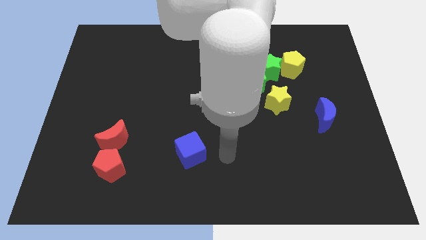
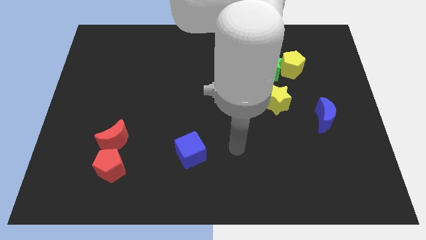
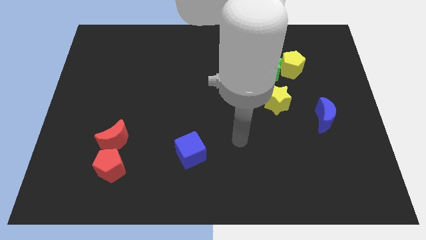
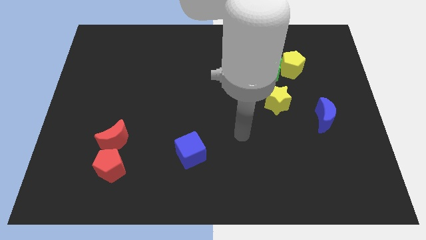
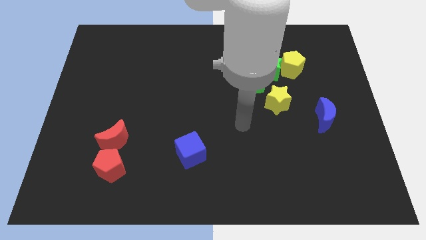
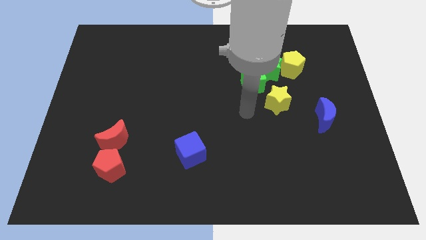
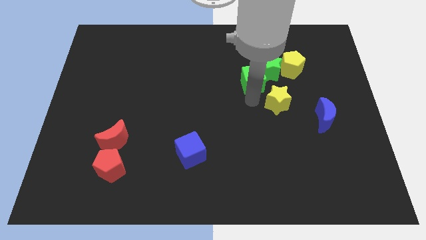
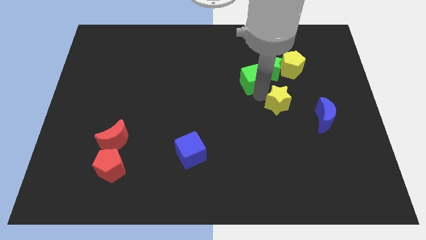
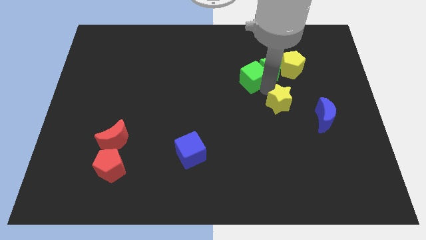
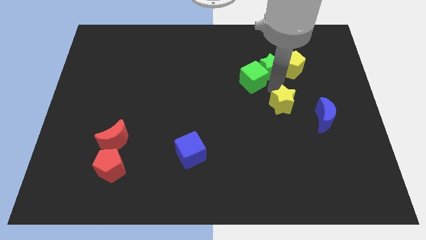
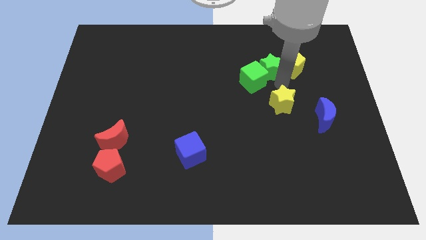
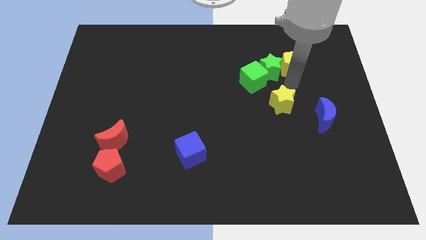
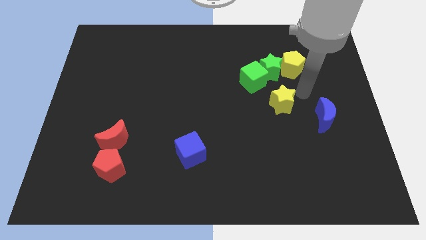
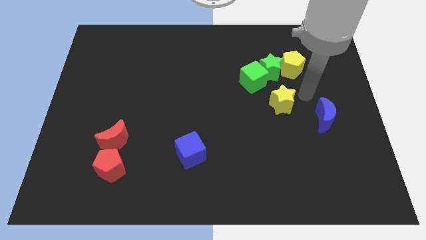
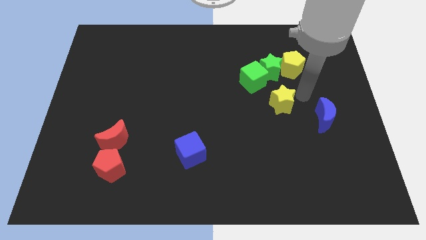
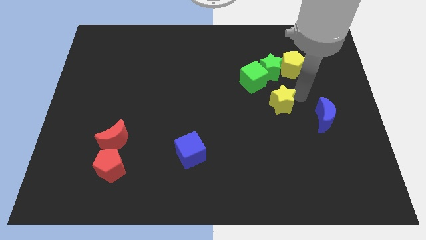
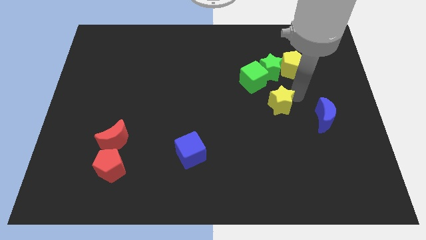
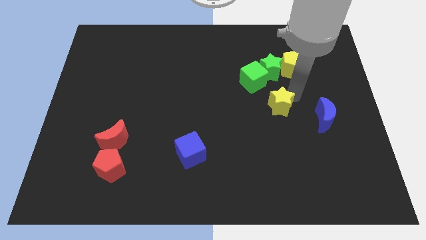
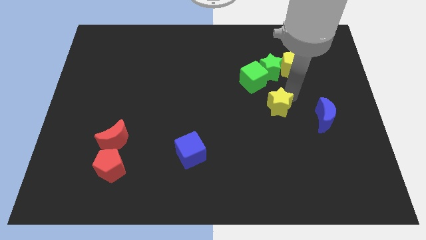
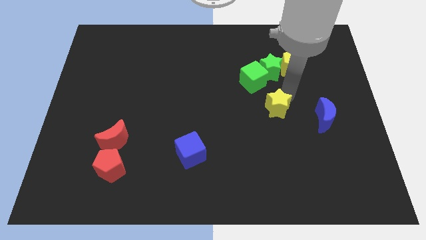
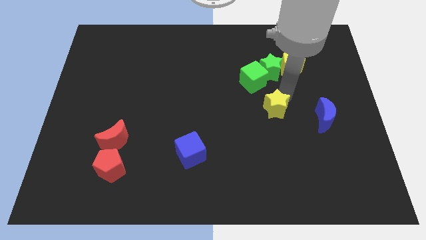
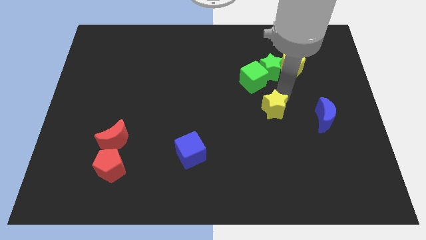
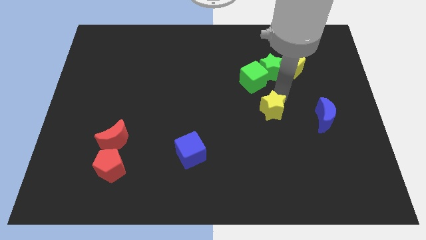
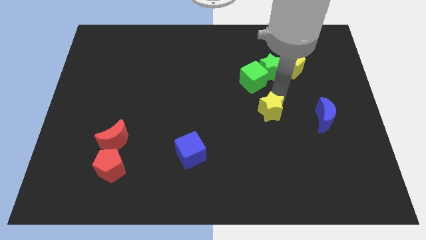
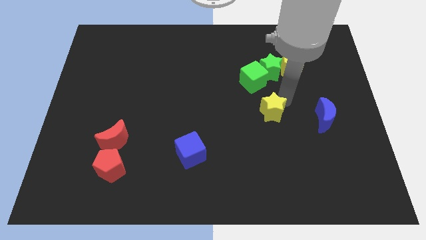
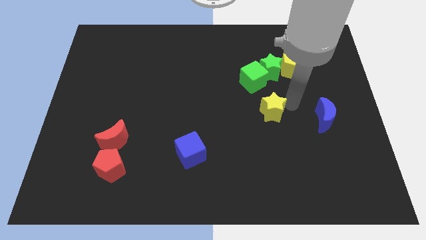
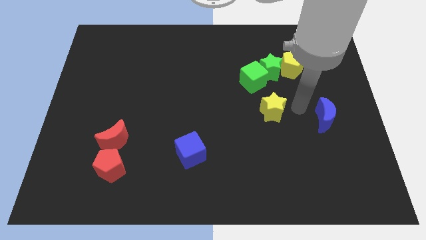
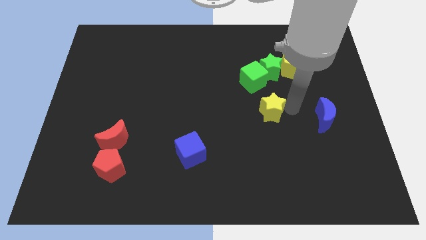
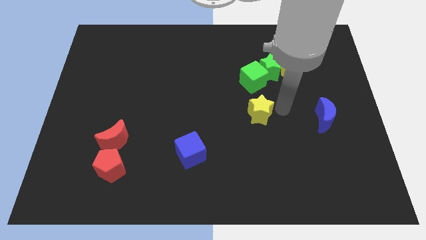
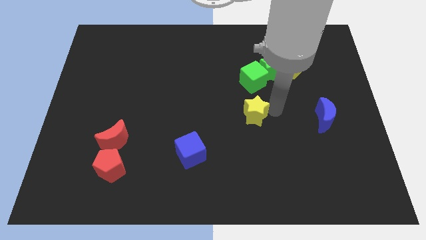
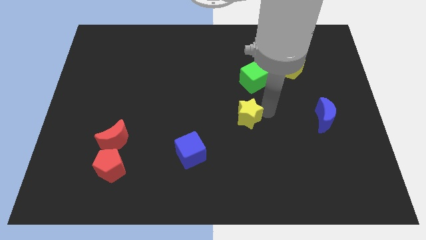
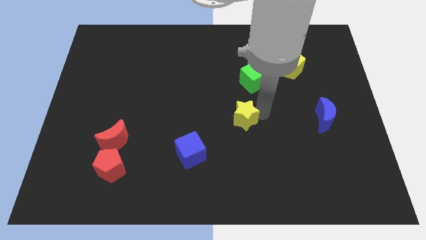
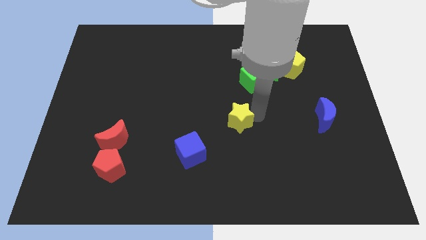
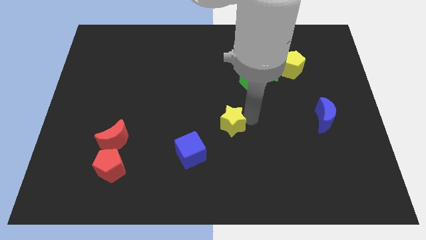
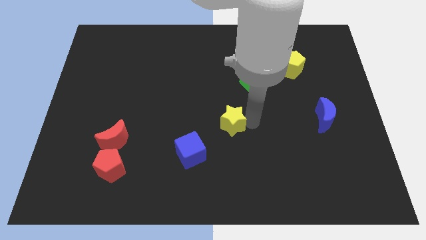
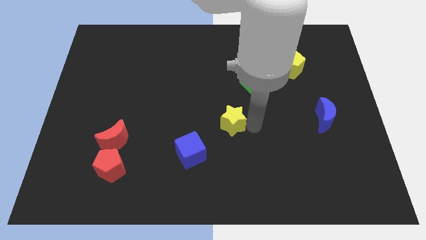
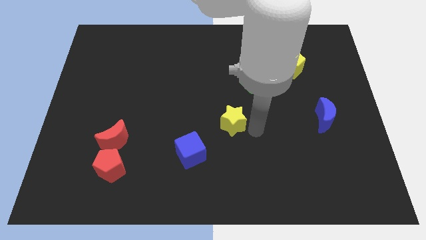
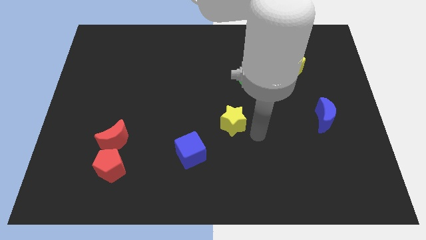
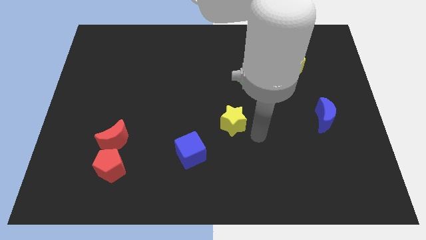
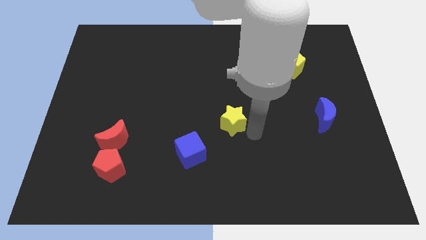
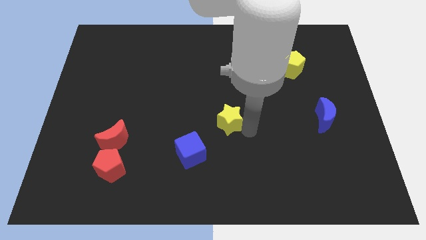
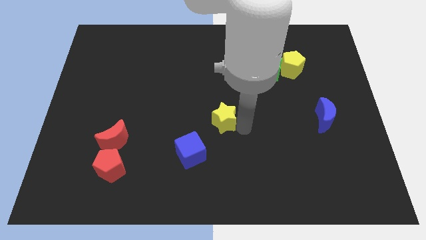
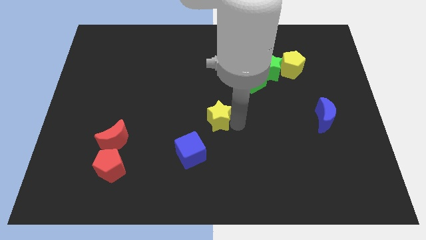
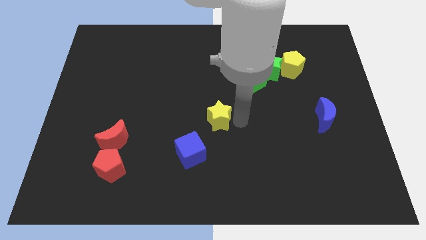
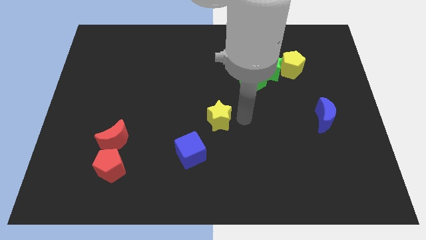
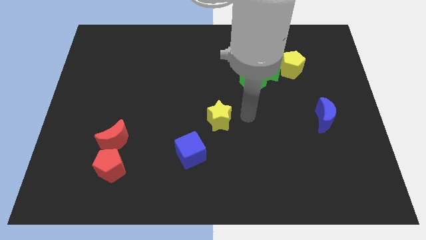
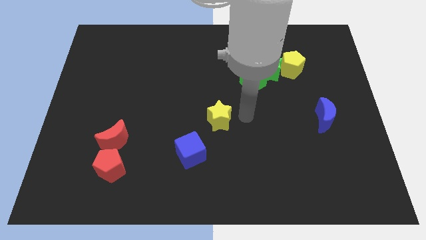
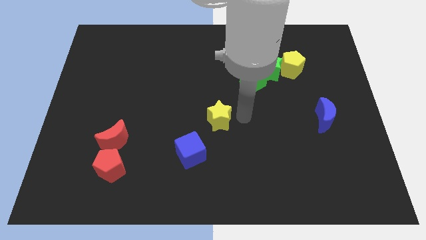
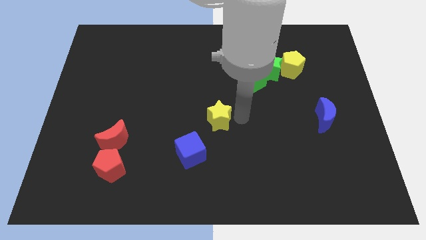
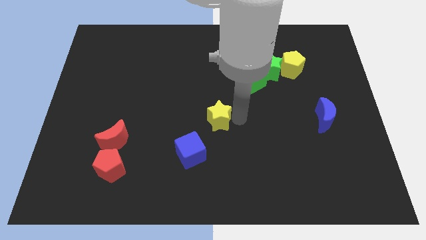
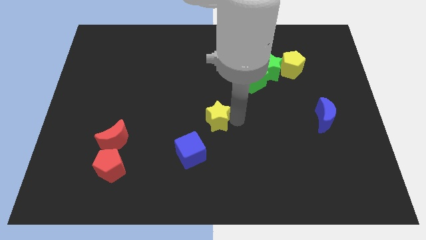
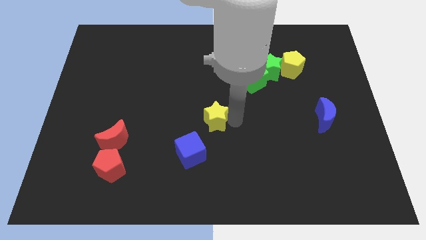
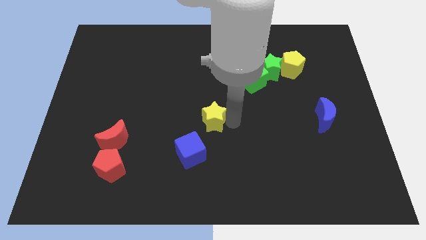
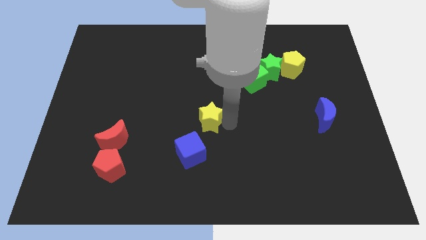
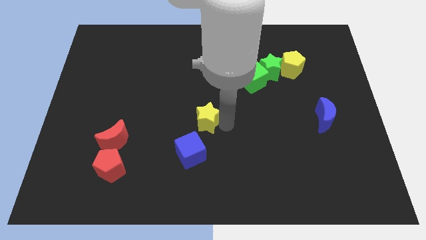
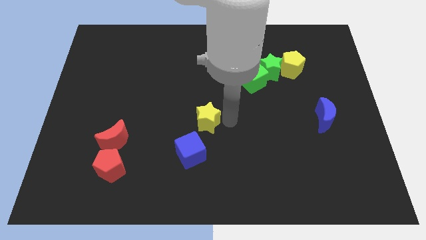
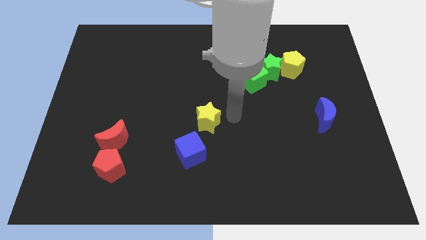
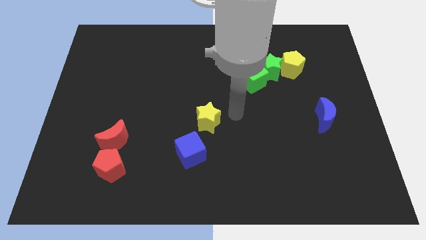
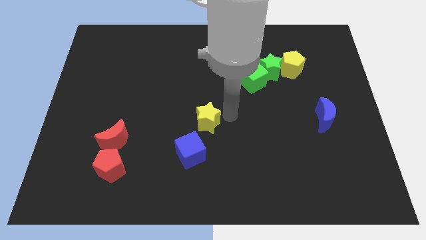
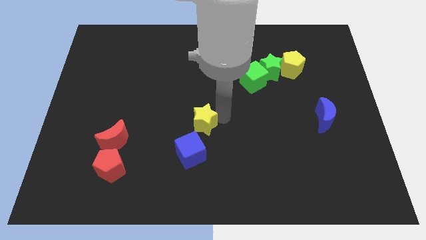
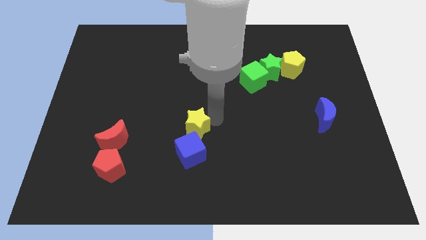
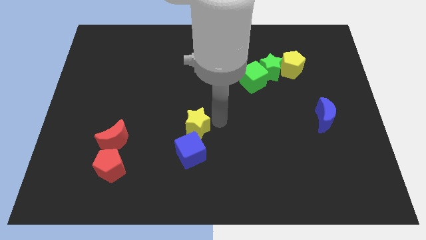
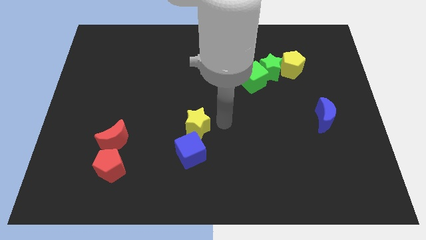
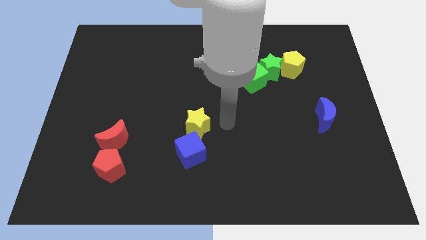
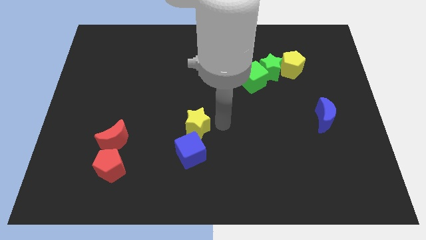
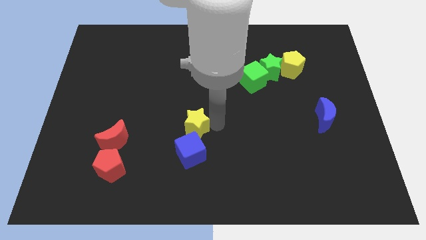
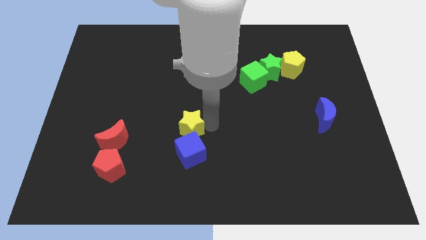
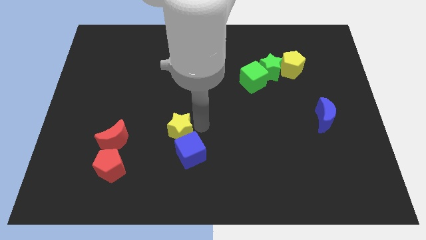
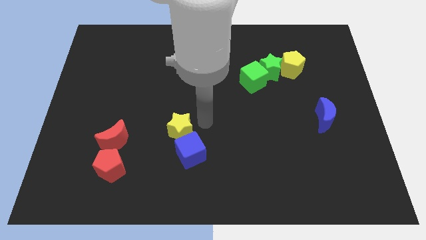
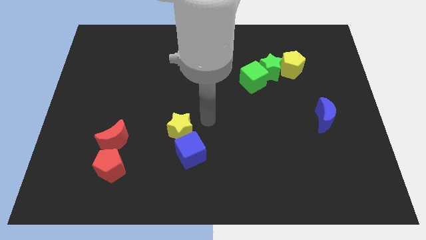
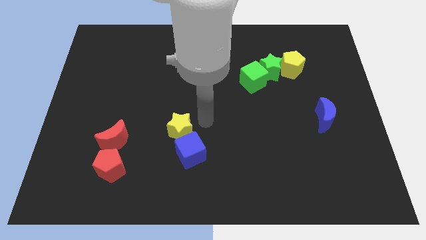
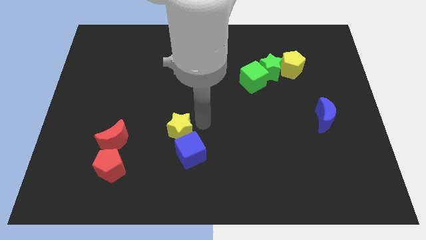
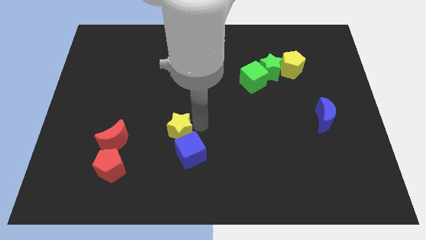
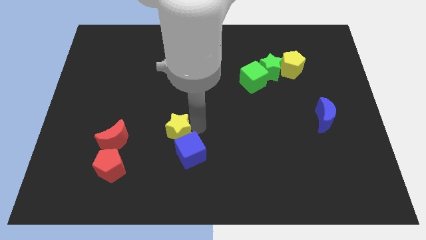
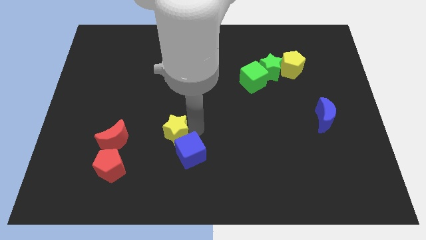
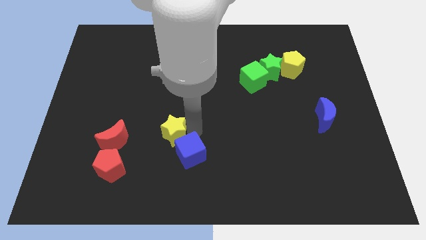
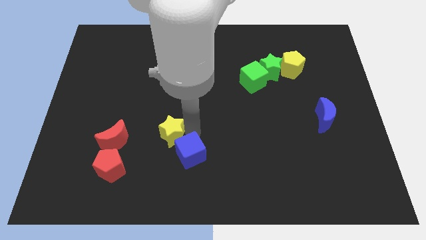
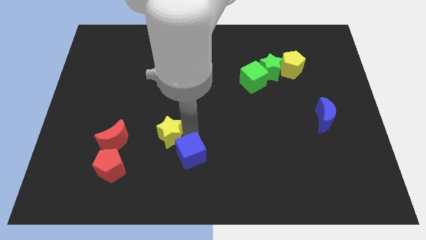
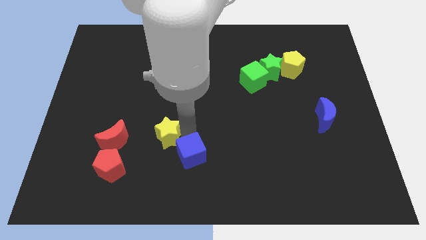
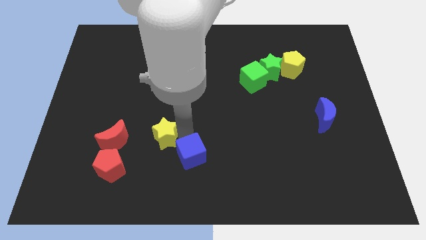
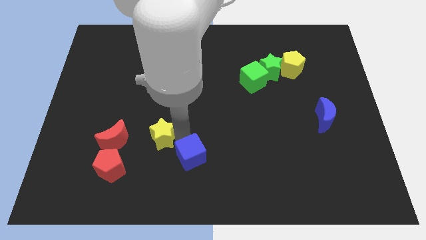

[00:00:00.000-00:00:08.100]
move the yellow star diagonally up and to the right of the red pentagon
